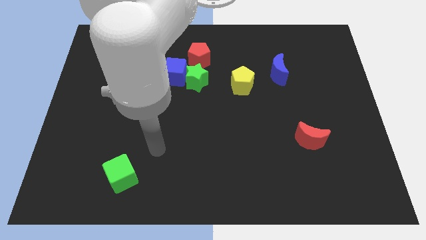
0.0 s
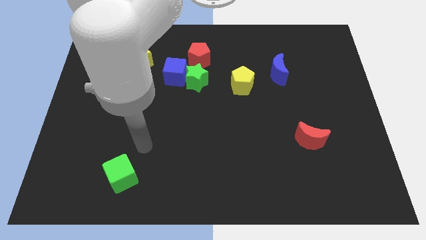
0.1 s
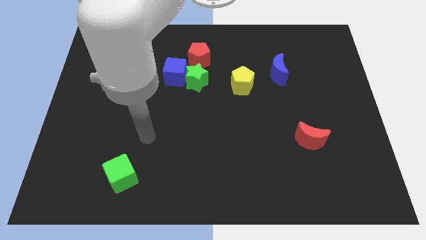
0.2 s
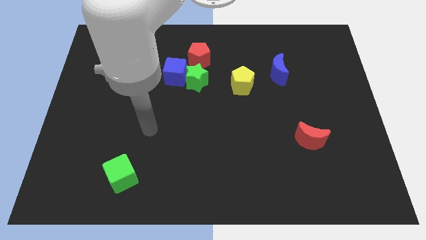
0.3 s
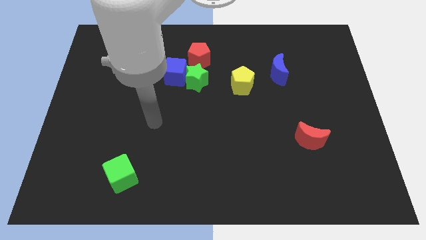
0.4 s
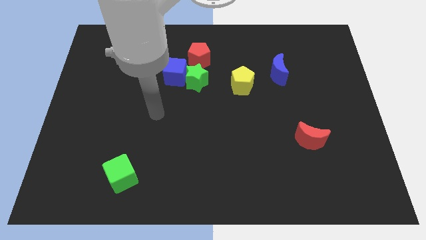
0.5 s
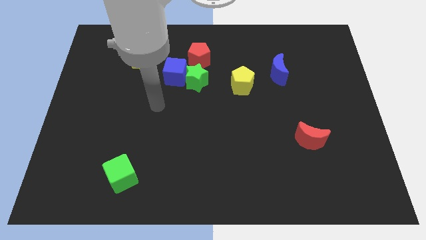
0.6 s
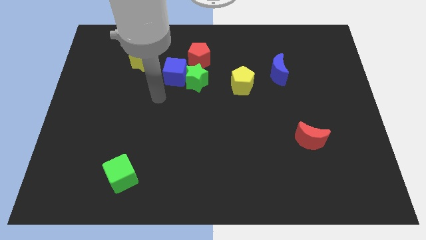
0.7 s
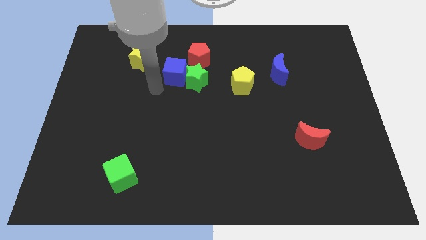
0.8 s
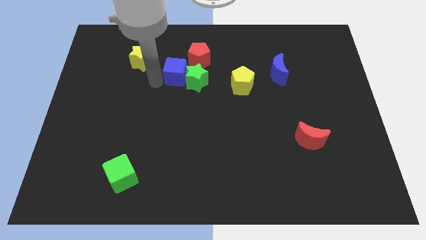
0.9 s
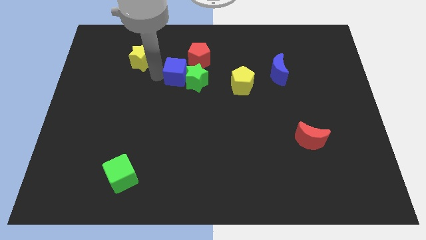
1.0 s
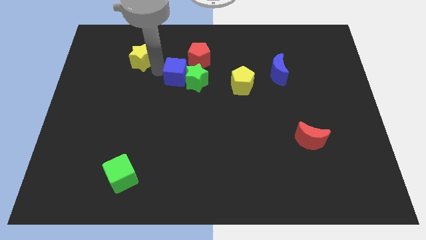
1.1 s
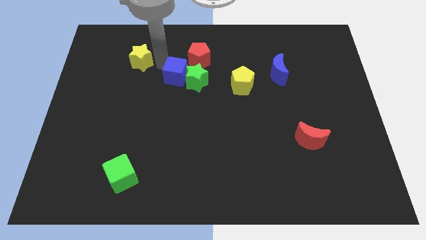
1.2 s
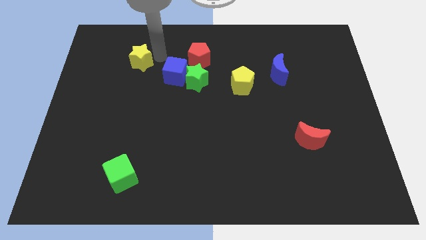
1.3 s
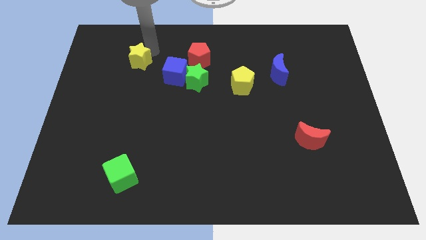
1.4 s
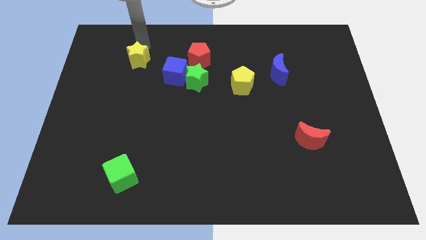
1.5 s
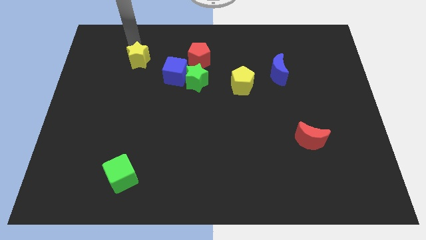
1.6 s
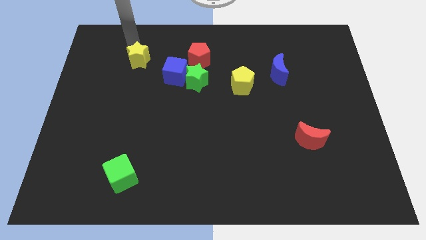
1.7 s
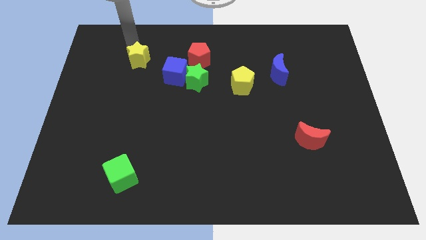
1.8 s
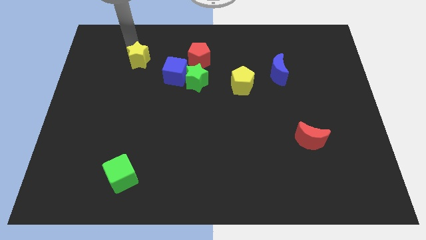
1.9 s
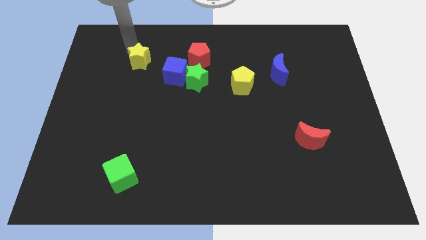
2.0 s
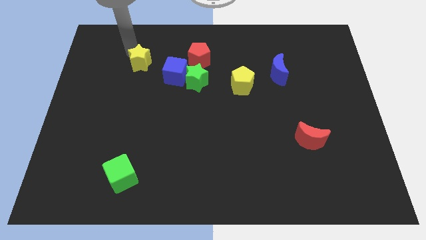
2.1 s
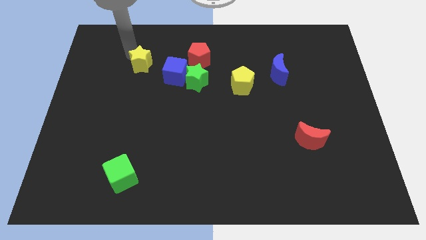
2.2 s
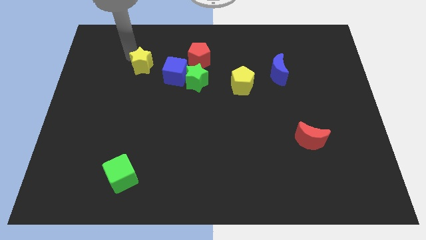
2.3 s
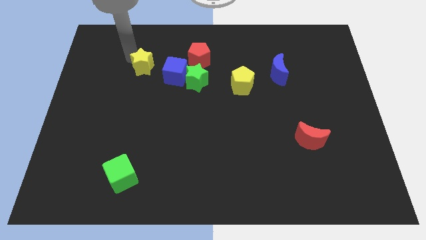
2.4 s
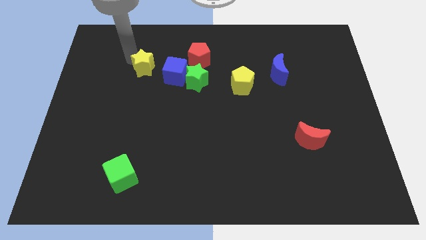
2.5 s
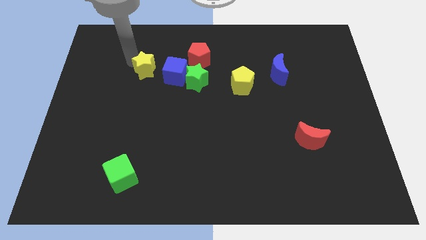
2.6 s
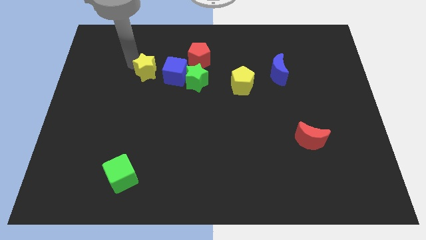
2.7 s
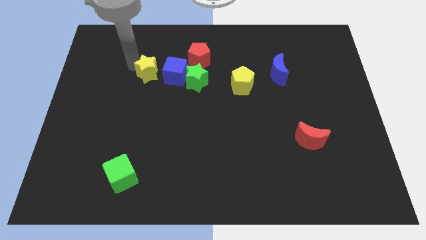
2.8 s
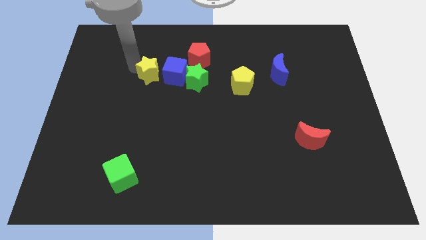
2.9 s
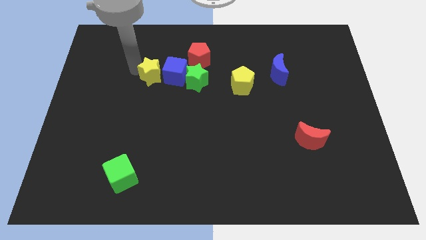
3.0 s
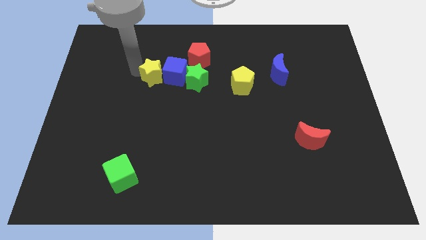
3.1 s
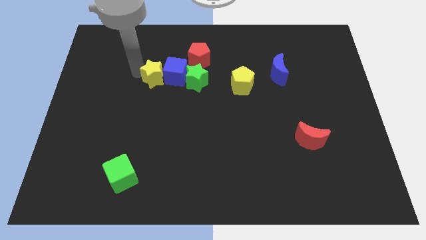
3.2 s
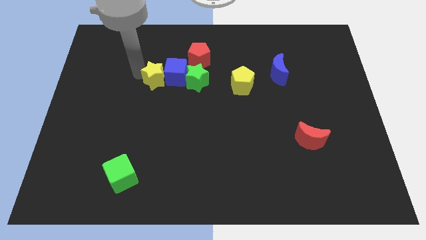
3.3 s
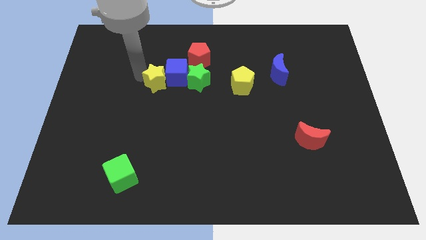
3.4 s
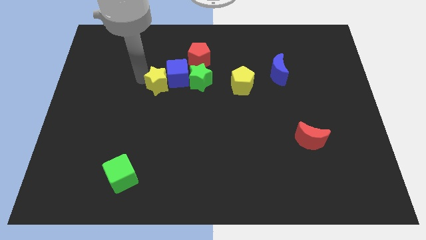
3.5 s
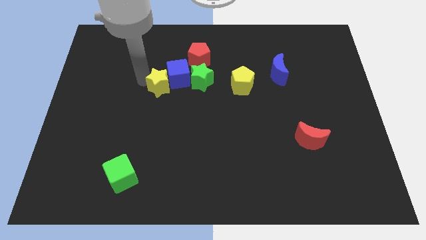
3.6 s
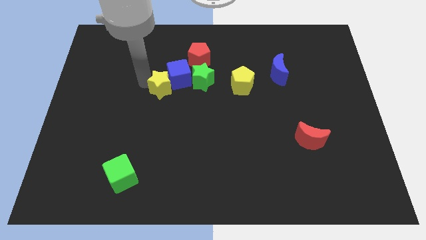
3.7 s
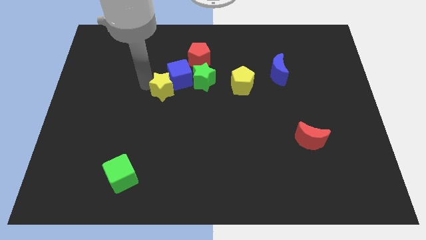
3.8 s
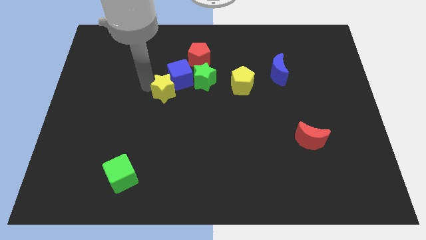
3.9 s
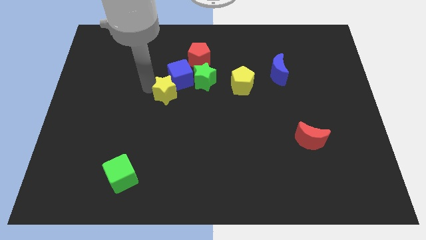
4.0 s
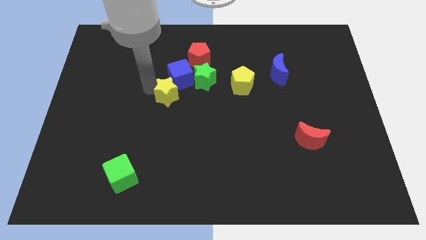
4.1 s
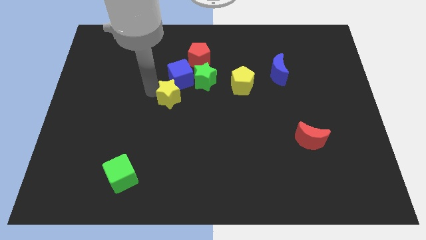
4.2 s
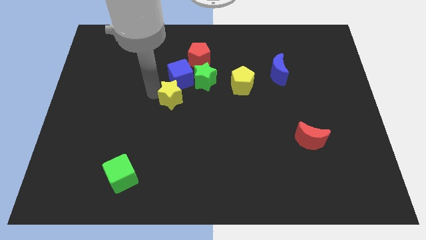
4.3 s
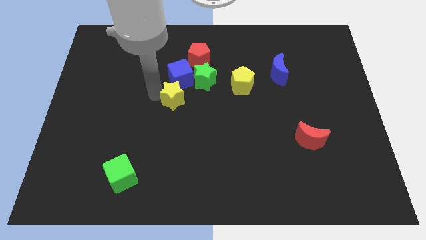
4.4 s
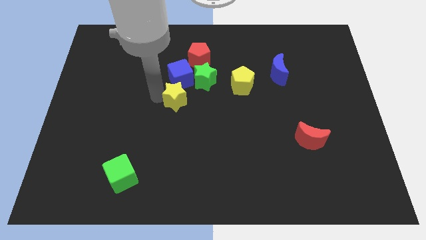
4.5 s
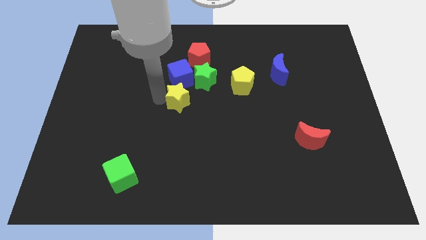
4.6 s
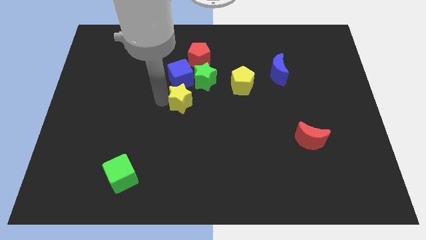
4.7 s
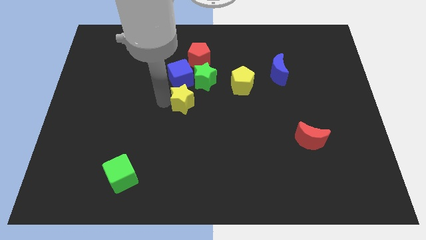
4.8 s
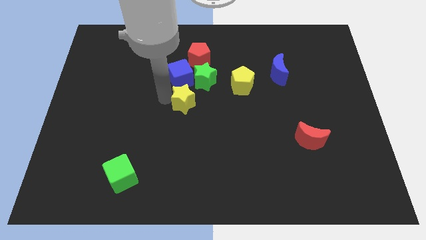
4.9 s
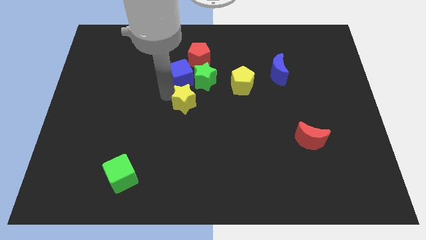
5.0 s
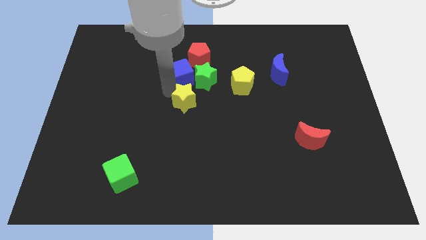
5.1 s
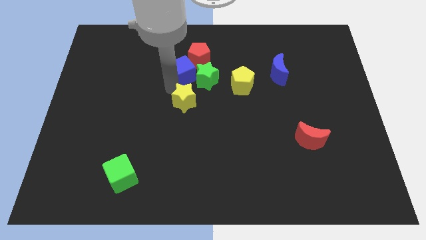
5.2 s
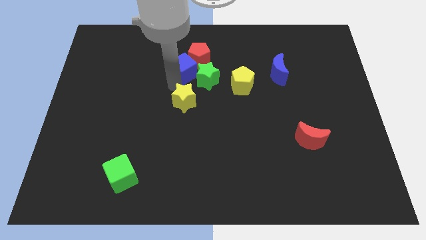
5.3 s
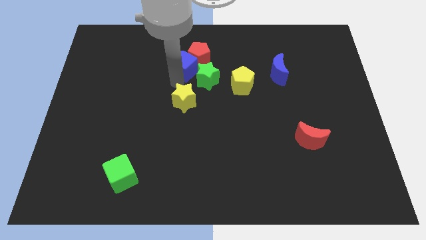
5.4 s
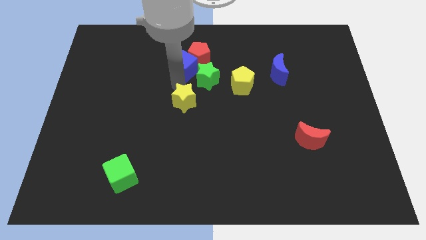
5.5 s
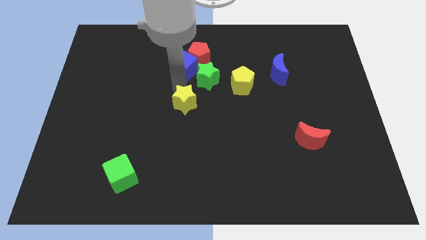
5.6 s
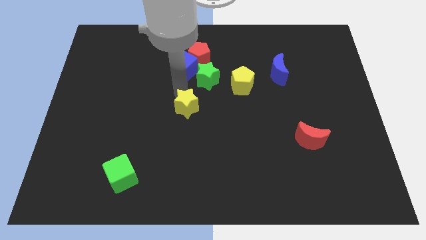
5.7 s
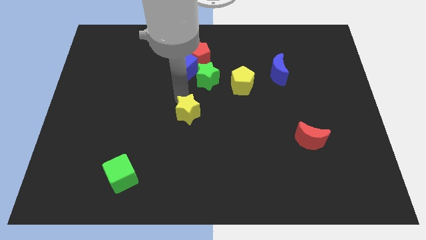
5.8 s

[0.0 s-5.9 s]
push the yellow star downwards and right

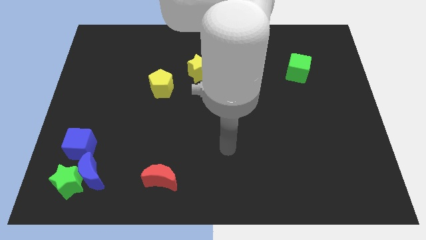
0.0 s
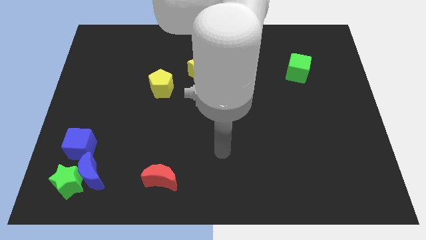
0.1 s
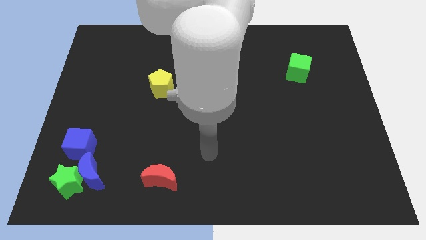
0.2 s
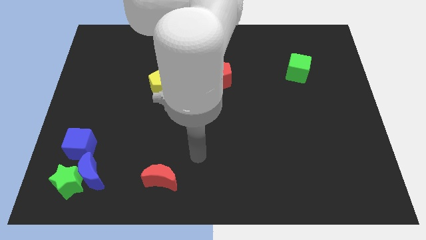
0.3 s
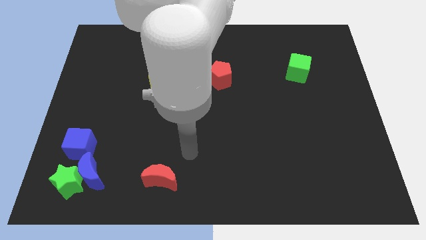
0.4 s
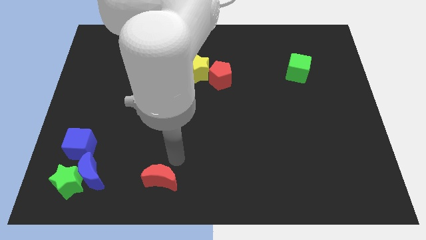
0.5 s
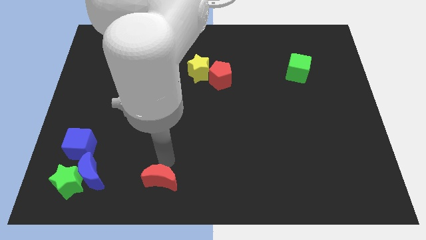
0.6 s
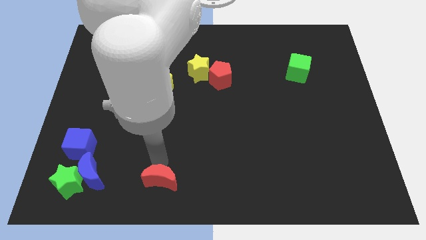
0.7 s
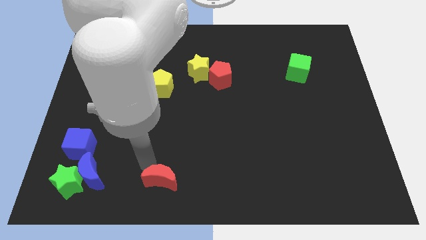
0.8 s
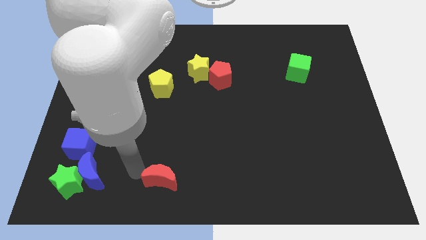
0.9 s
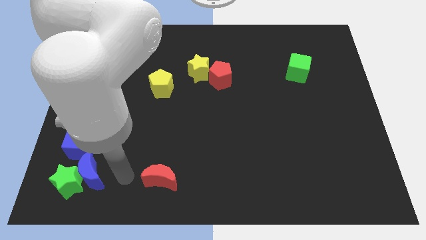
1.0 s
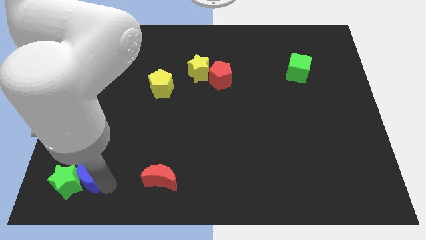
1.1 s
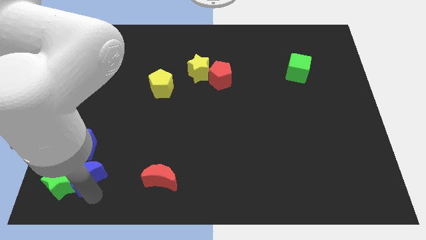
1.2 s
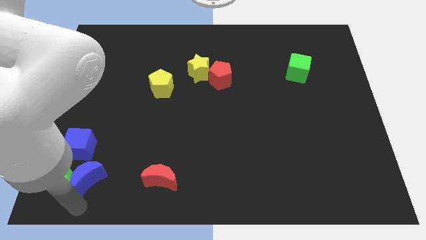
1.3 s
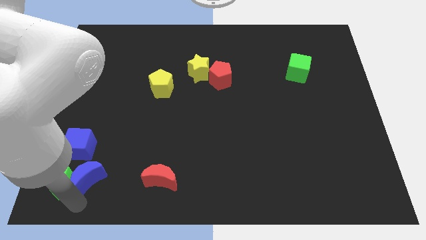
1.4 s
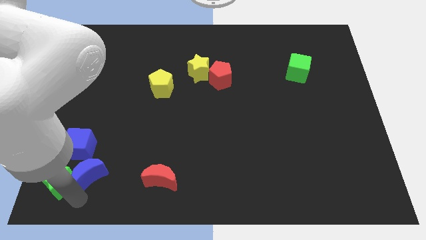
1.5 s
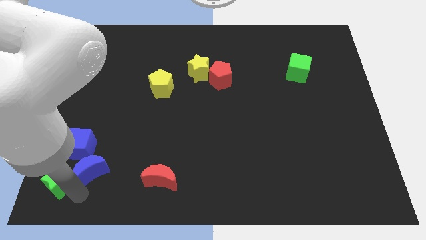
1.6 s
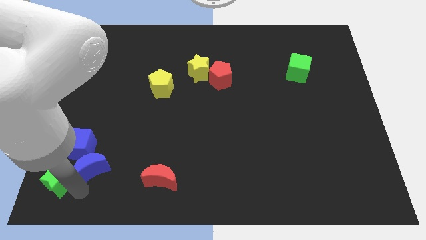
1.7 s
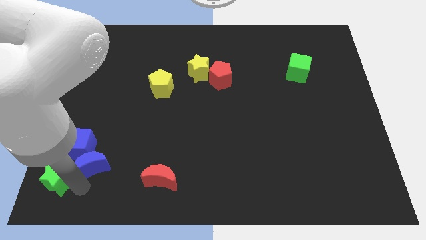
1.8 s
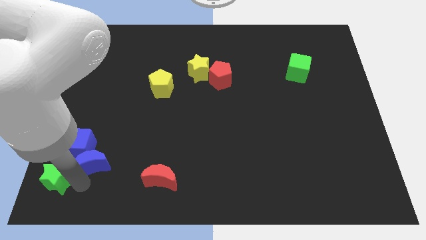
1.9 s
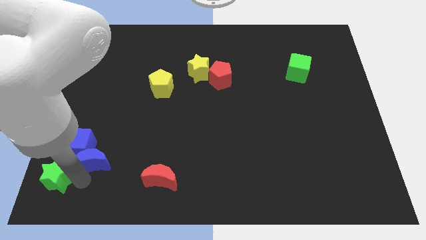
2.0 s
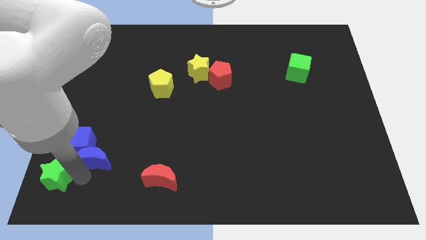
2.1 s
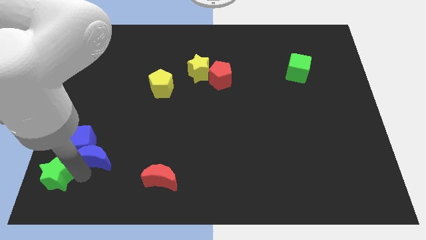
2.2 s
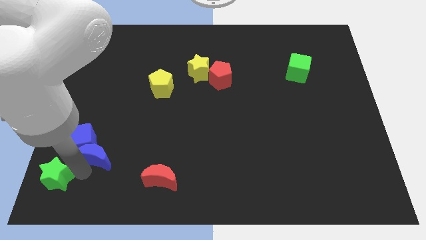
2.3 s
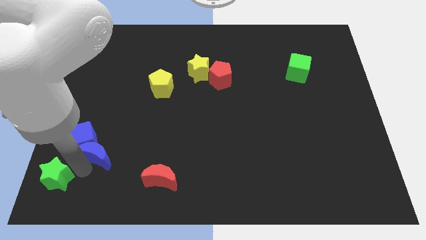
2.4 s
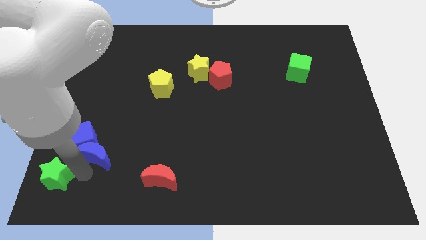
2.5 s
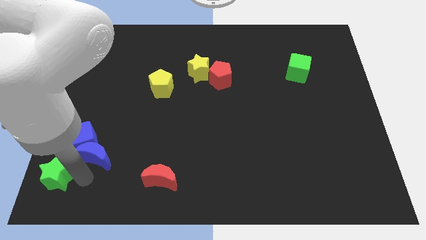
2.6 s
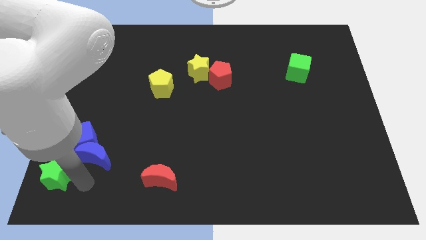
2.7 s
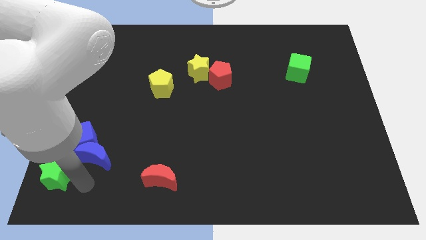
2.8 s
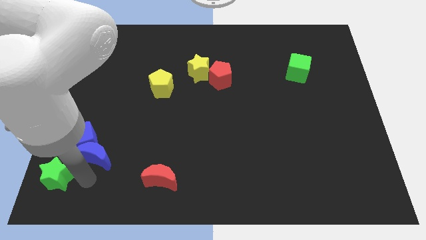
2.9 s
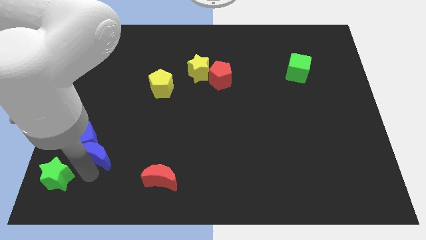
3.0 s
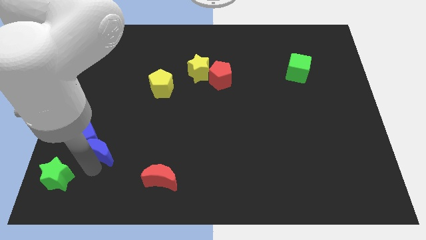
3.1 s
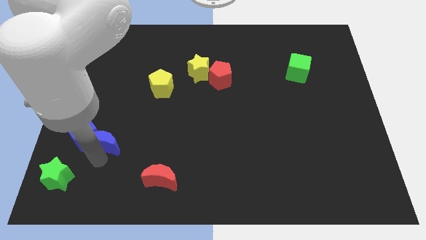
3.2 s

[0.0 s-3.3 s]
push the blue moon a bit up
